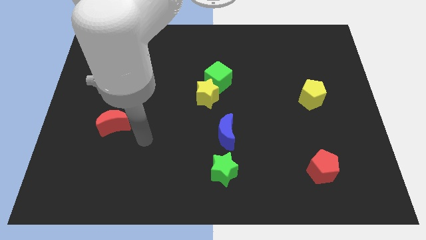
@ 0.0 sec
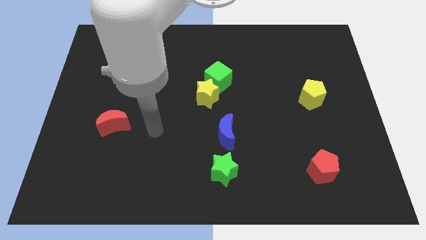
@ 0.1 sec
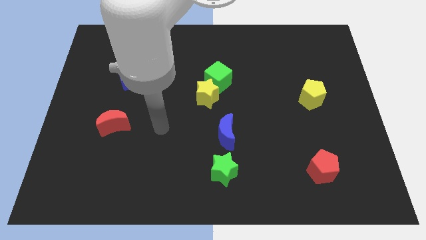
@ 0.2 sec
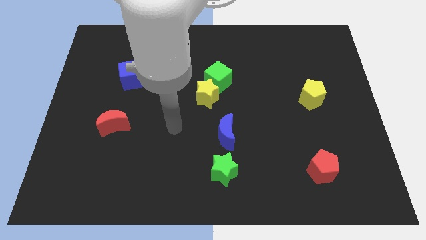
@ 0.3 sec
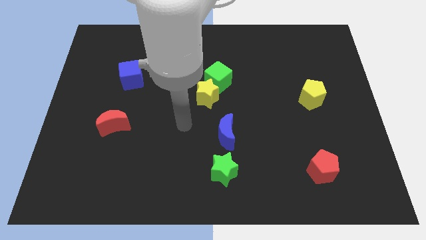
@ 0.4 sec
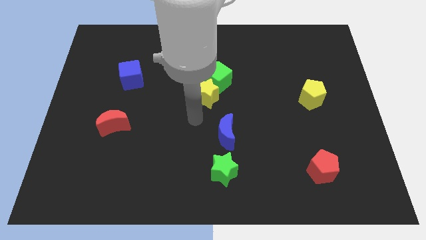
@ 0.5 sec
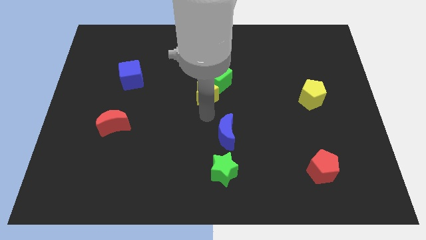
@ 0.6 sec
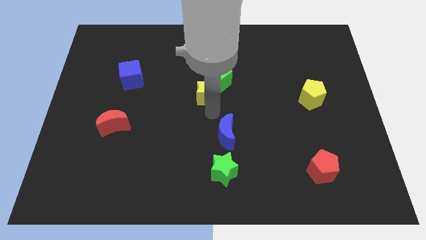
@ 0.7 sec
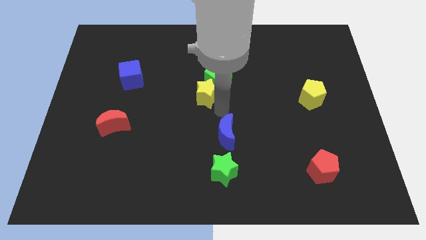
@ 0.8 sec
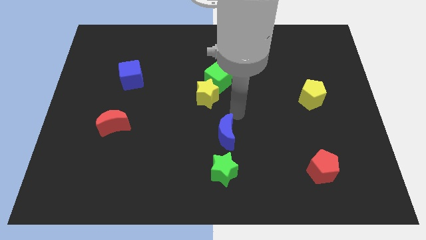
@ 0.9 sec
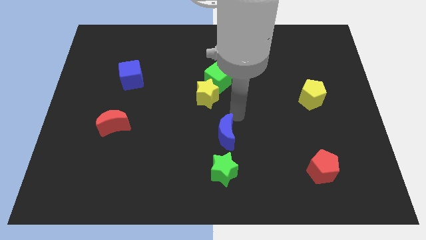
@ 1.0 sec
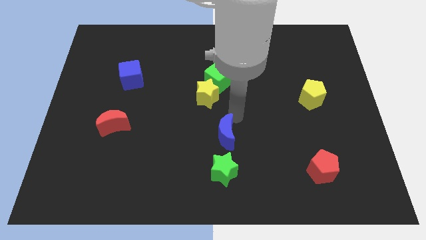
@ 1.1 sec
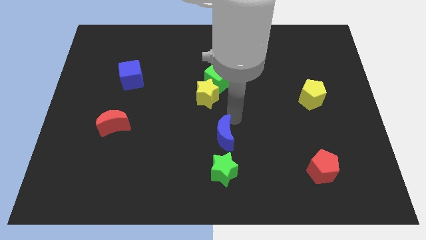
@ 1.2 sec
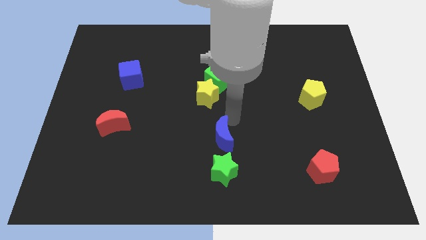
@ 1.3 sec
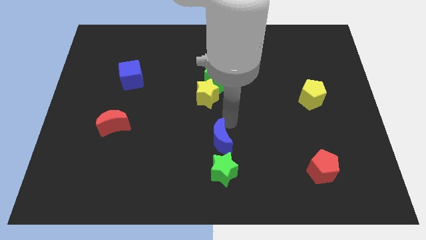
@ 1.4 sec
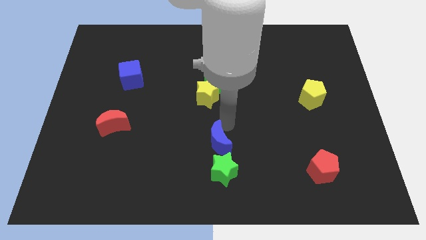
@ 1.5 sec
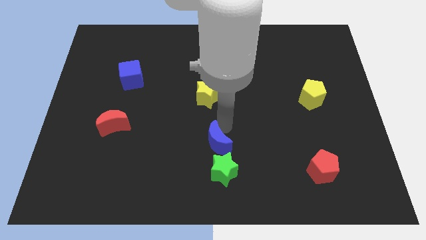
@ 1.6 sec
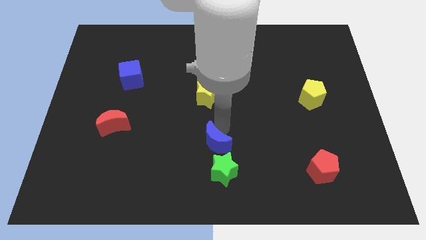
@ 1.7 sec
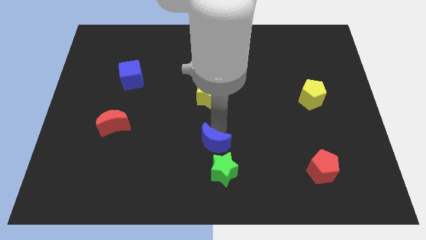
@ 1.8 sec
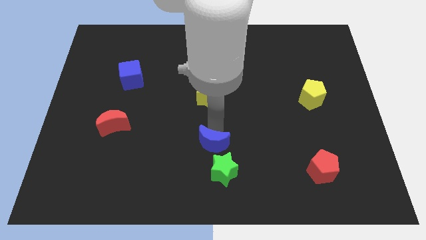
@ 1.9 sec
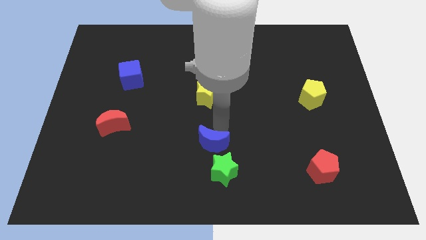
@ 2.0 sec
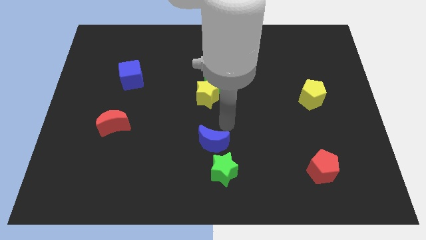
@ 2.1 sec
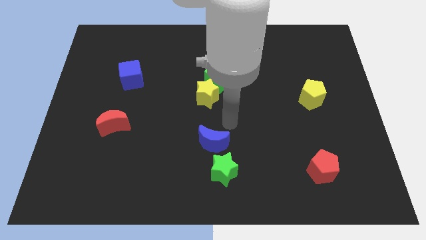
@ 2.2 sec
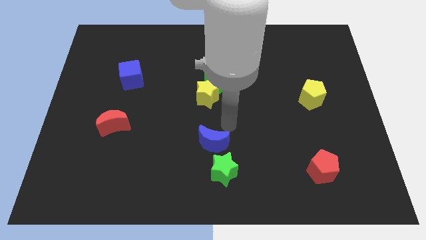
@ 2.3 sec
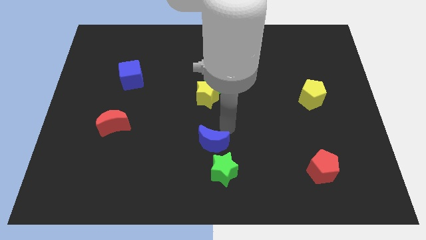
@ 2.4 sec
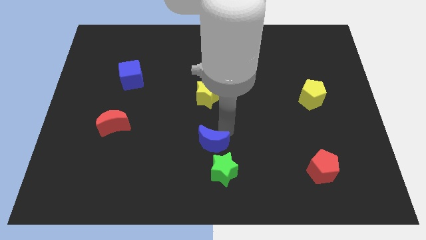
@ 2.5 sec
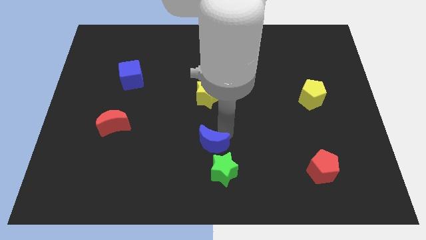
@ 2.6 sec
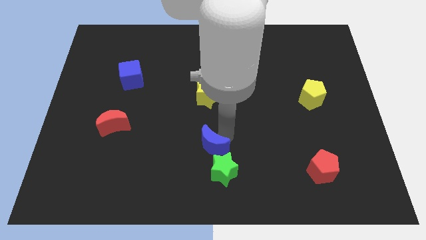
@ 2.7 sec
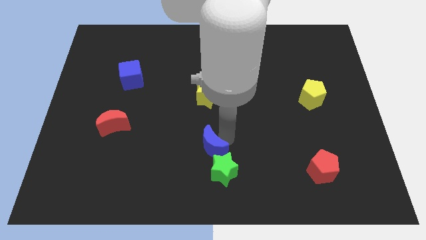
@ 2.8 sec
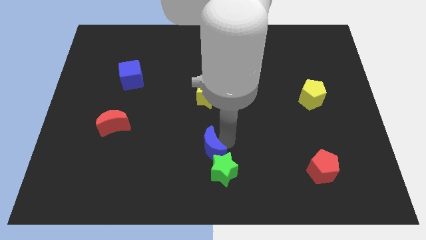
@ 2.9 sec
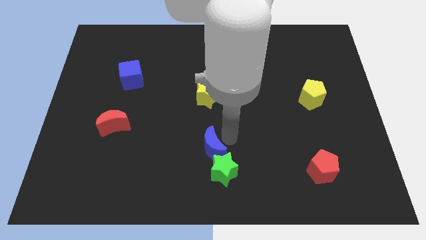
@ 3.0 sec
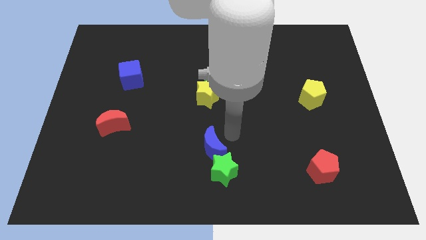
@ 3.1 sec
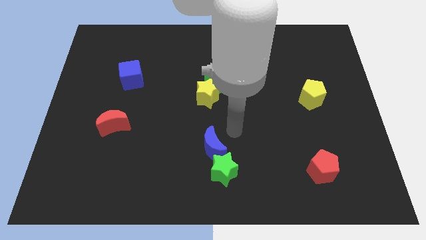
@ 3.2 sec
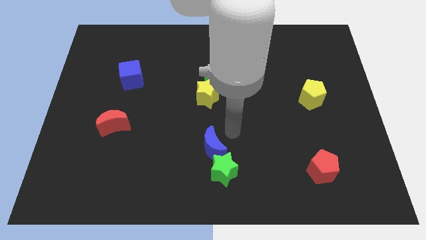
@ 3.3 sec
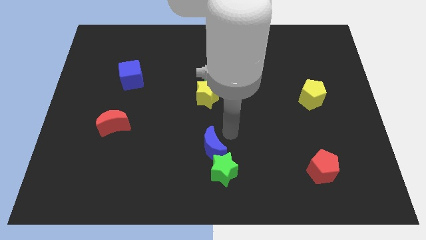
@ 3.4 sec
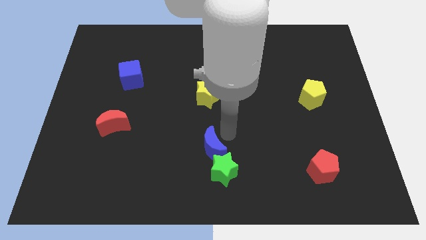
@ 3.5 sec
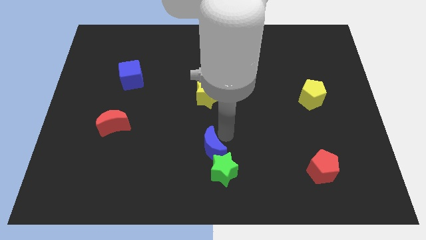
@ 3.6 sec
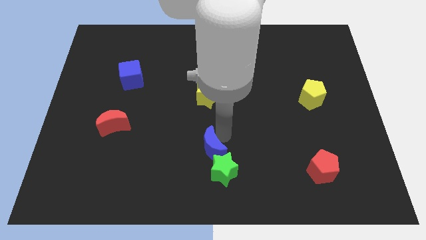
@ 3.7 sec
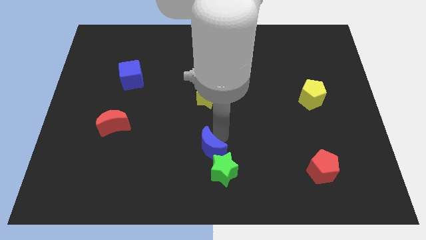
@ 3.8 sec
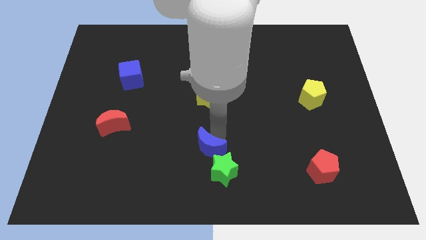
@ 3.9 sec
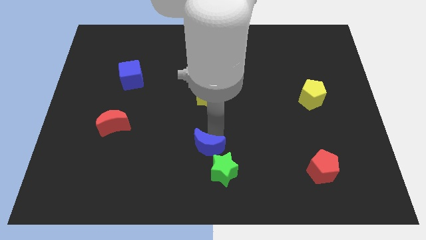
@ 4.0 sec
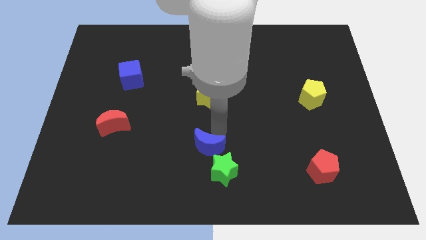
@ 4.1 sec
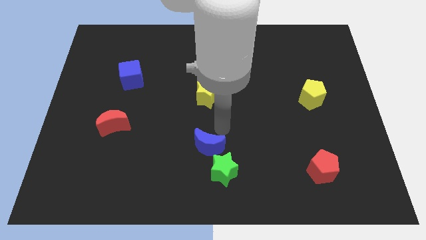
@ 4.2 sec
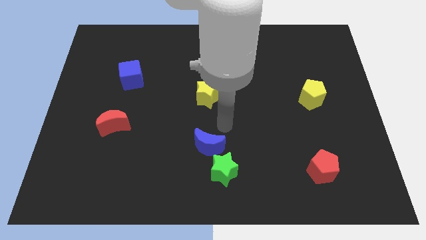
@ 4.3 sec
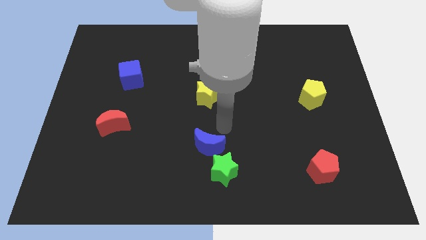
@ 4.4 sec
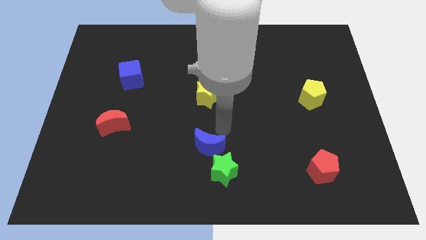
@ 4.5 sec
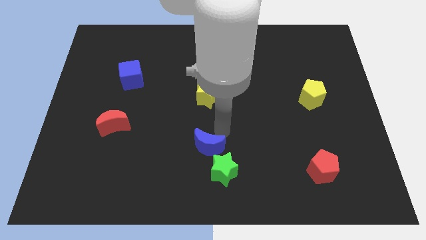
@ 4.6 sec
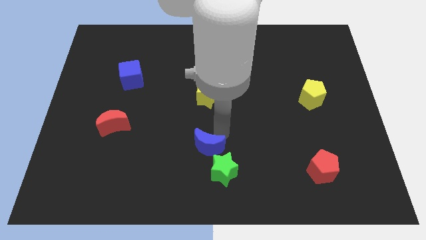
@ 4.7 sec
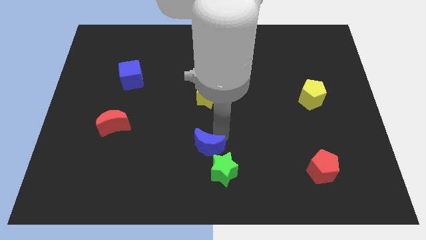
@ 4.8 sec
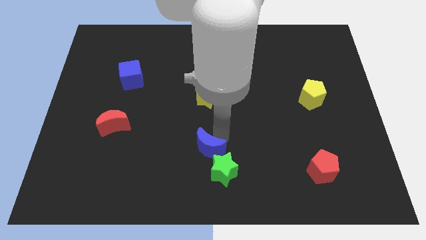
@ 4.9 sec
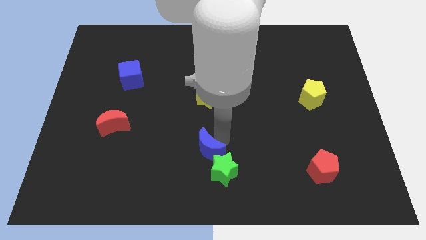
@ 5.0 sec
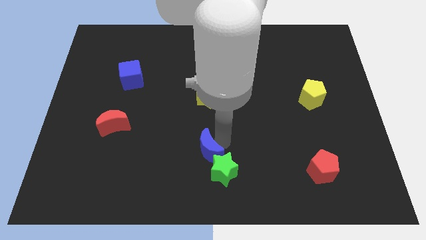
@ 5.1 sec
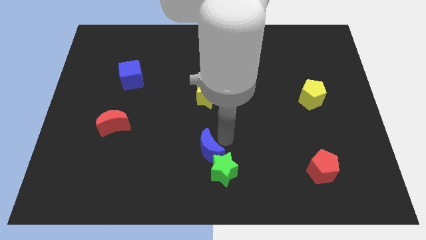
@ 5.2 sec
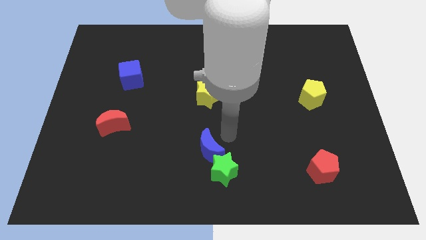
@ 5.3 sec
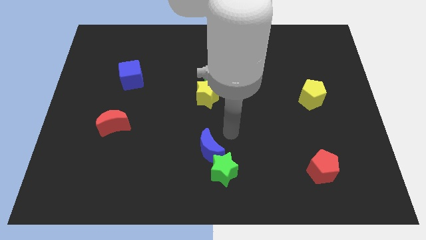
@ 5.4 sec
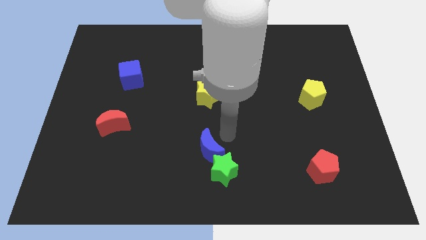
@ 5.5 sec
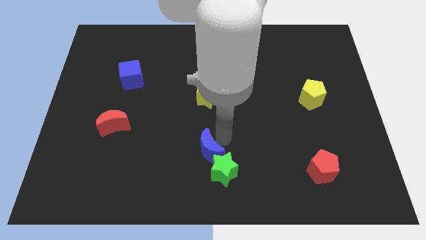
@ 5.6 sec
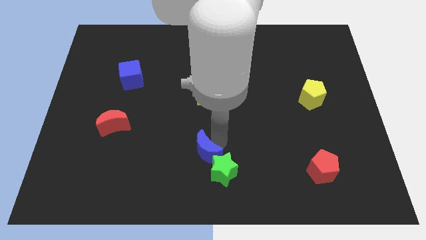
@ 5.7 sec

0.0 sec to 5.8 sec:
move the blue moon to the left side of the green star
